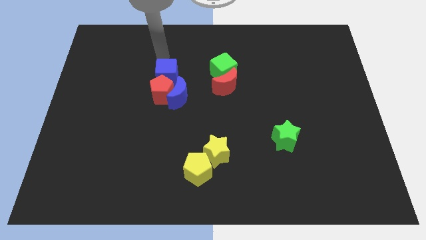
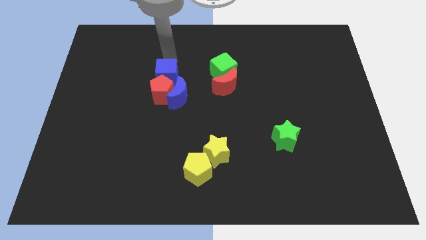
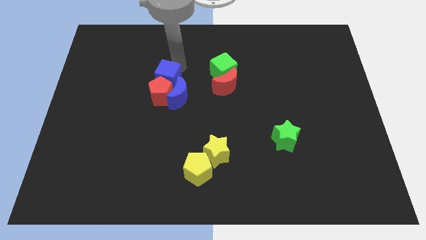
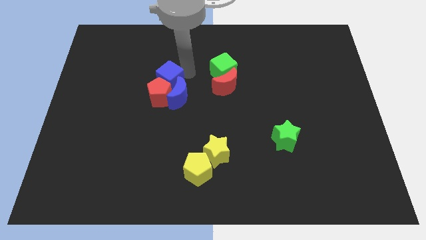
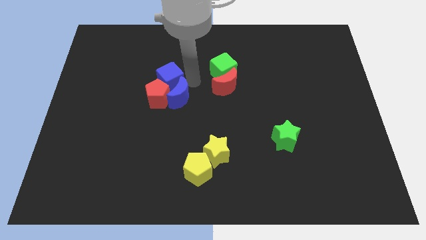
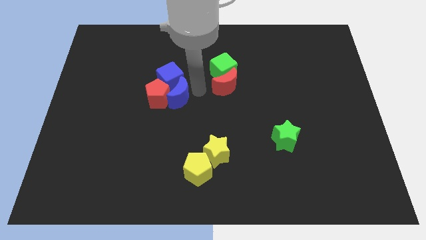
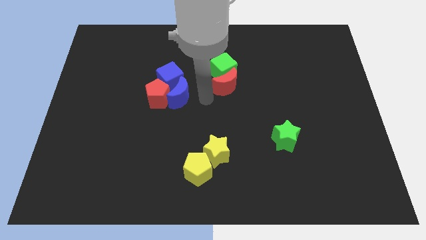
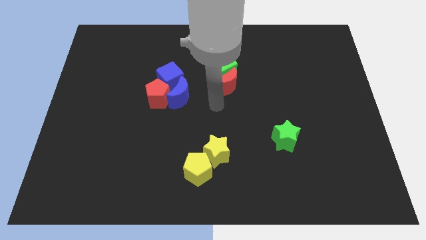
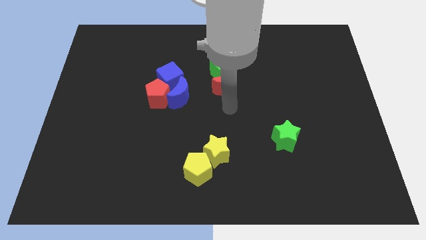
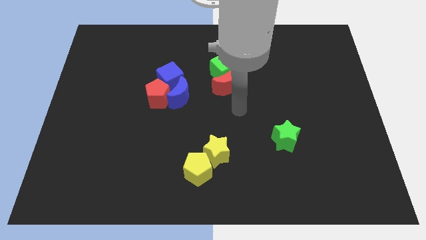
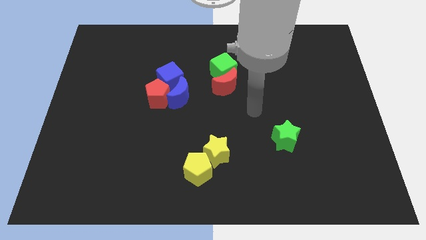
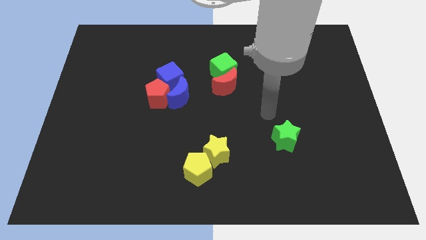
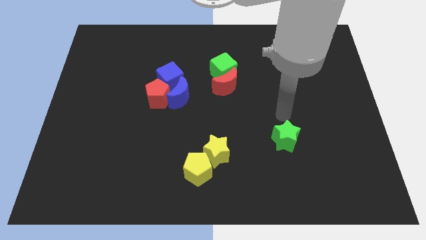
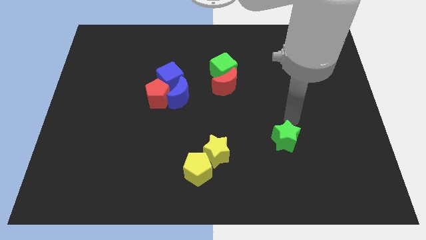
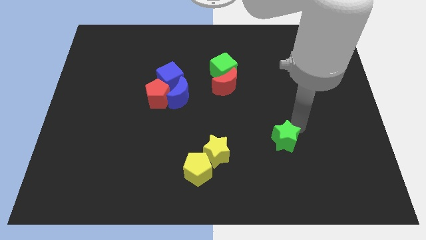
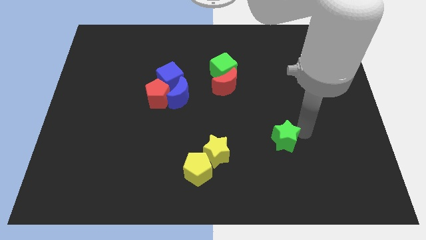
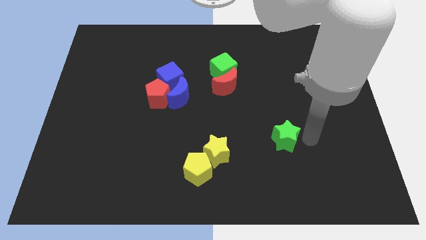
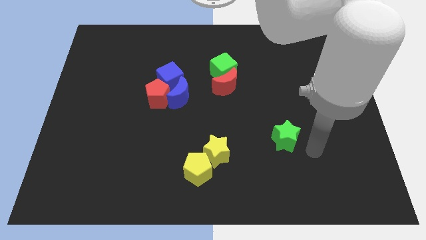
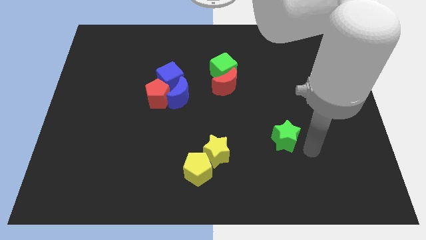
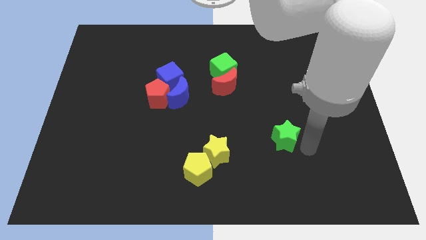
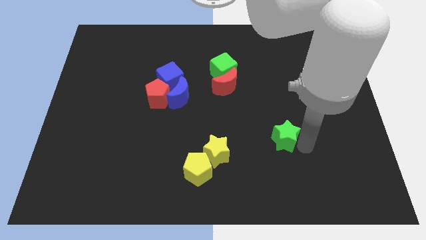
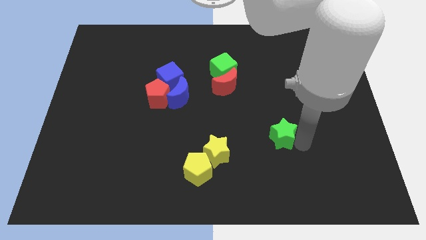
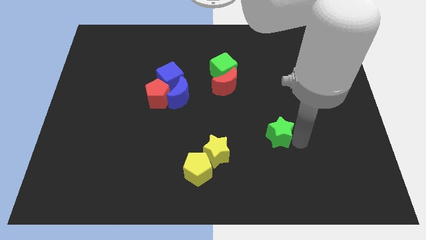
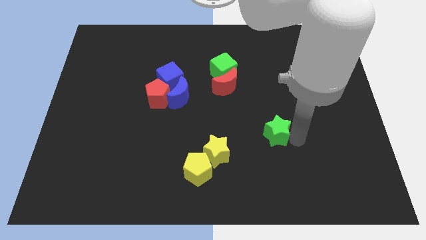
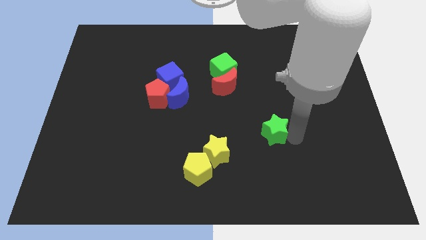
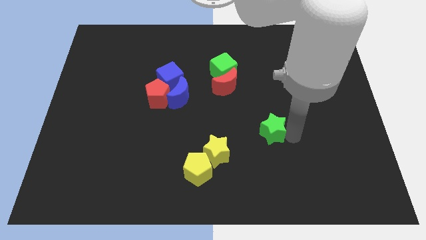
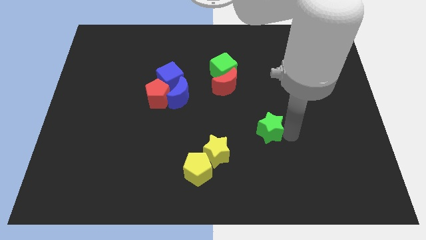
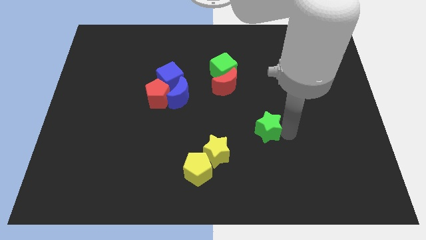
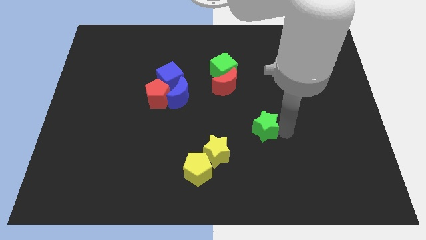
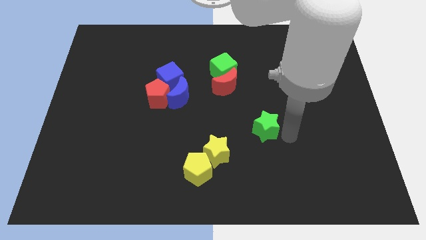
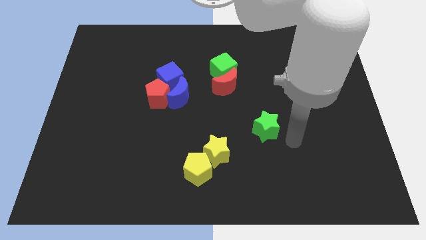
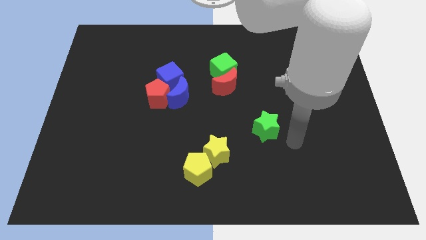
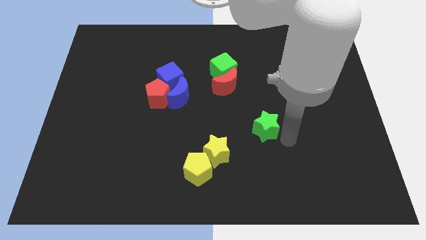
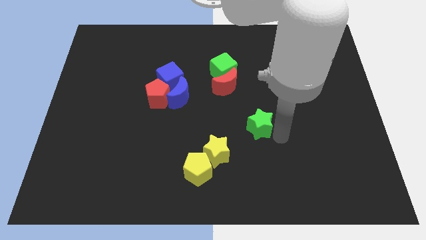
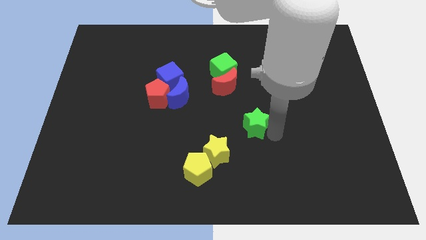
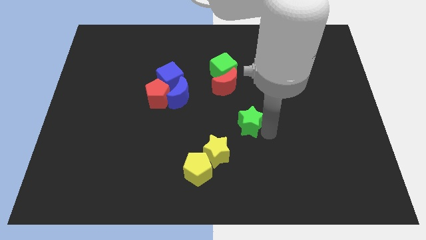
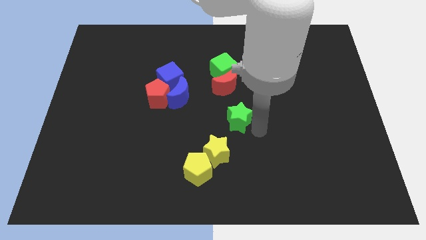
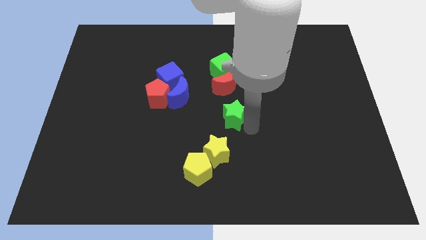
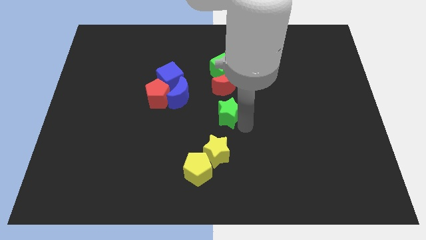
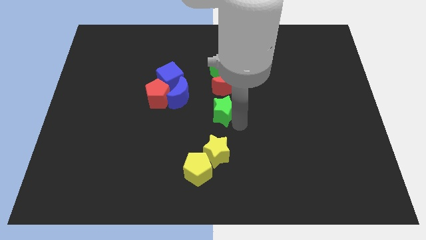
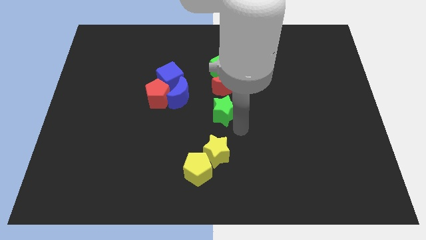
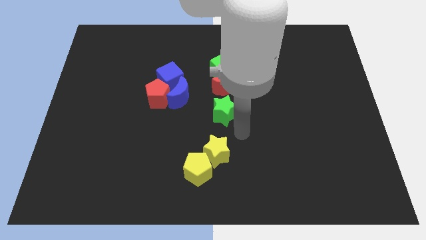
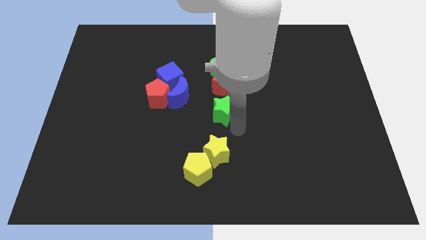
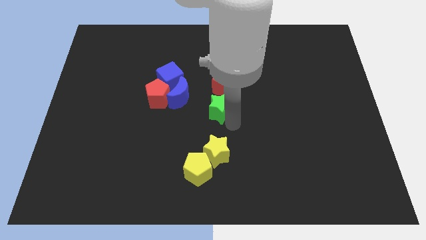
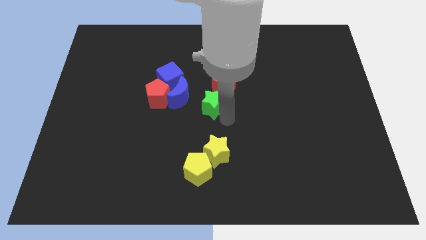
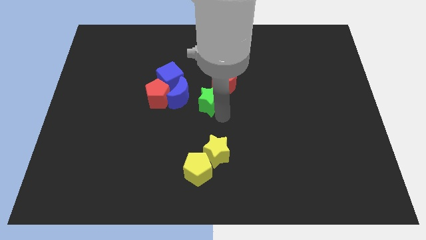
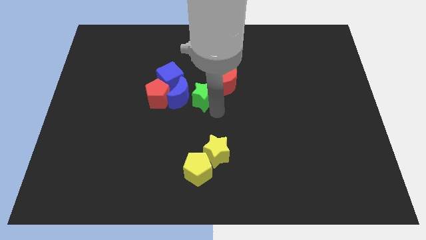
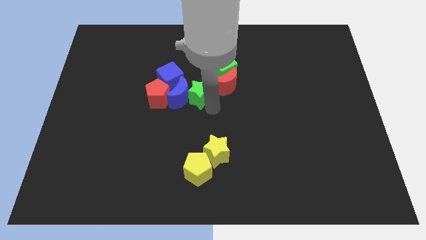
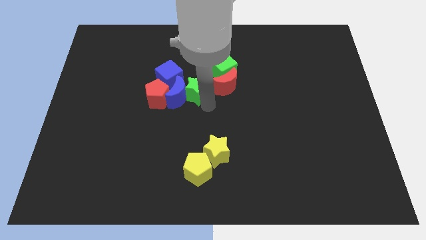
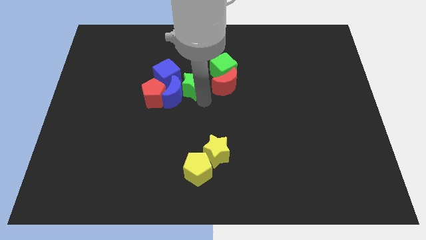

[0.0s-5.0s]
put the green star to the top right of the red pentagon

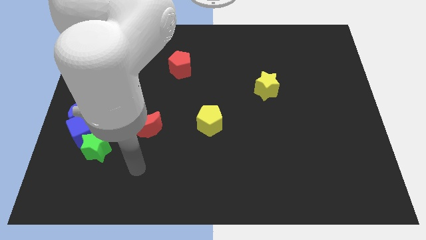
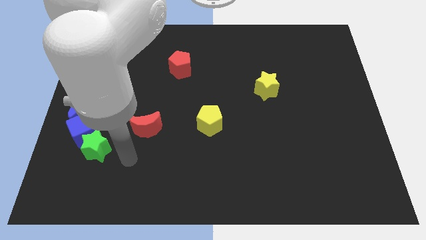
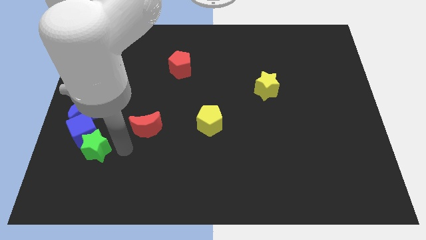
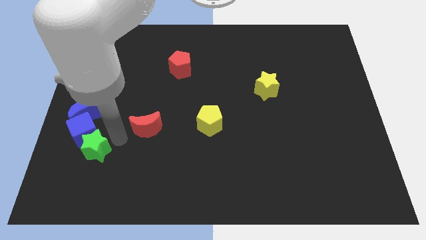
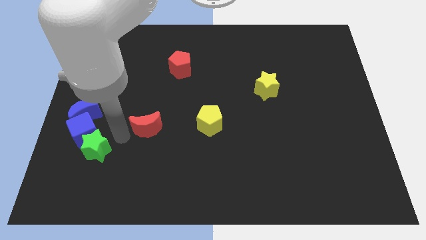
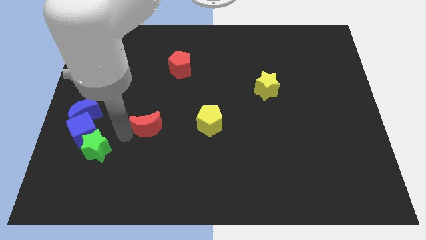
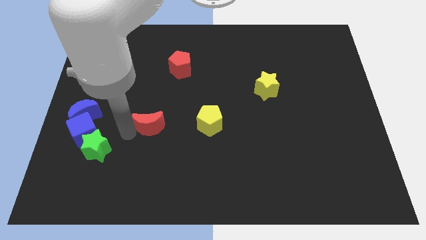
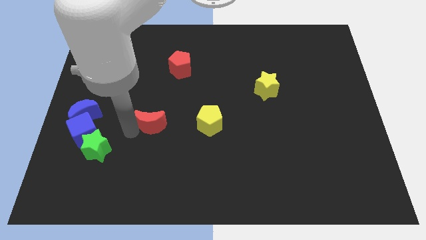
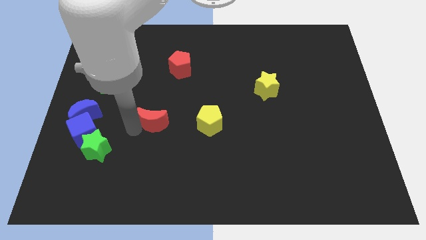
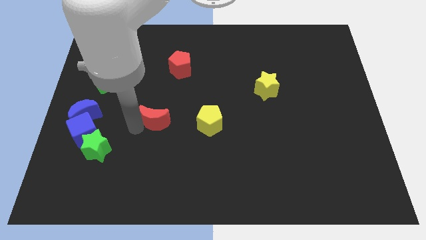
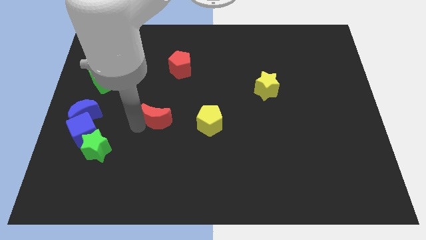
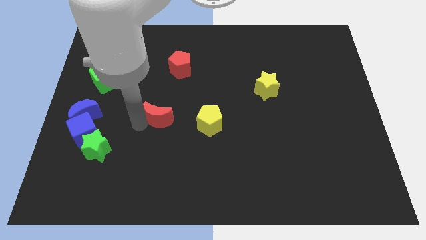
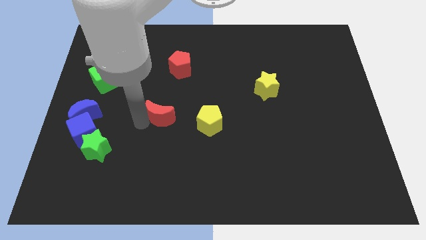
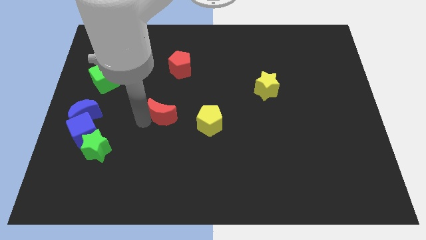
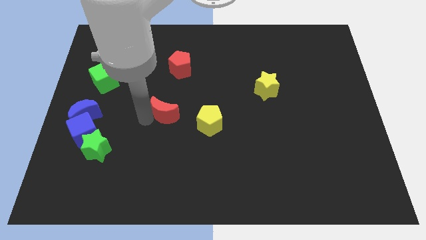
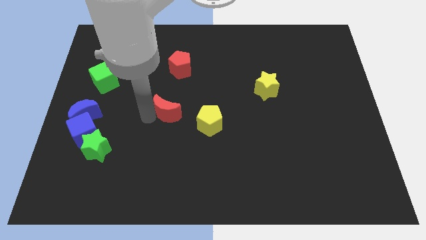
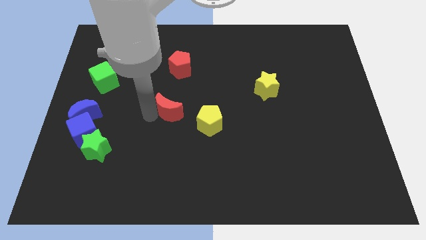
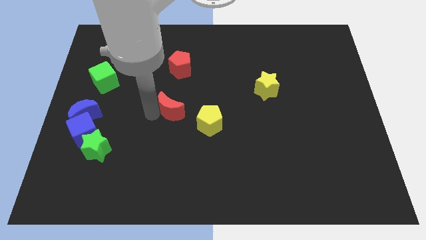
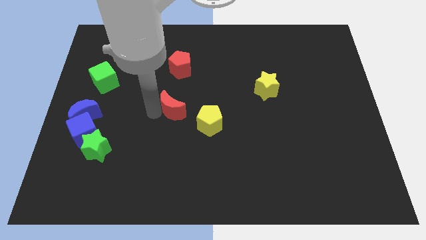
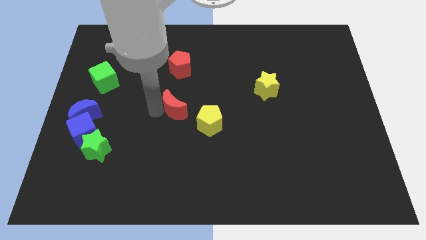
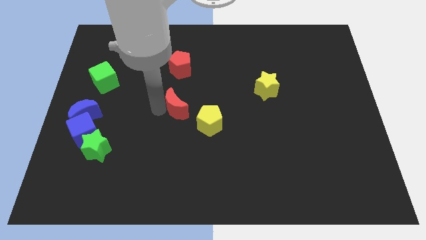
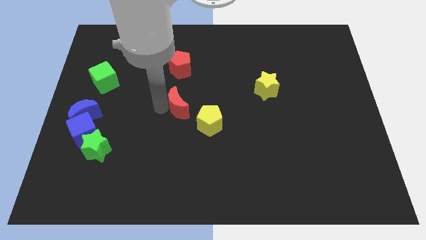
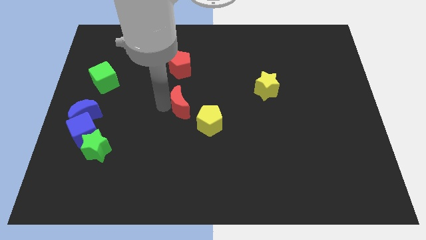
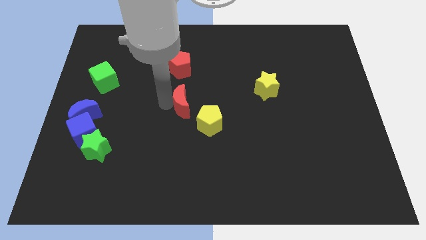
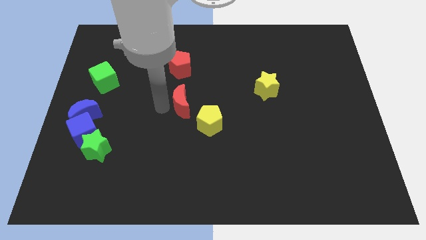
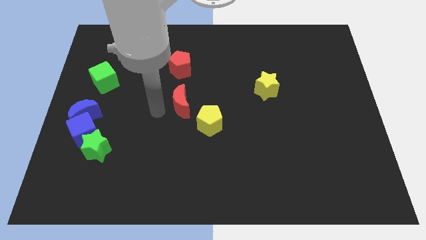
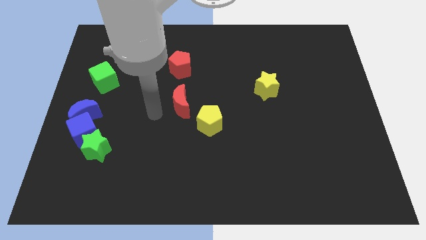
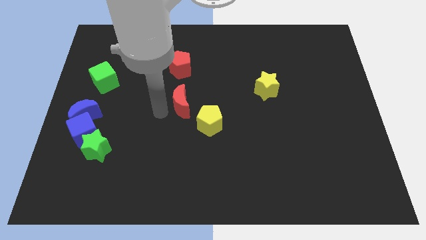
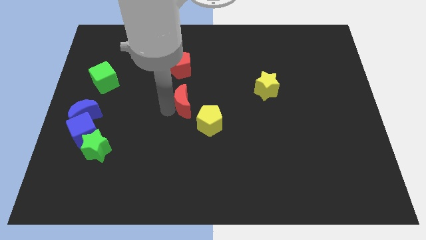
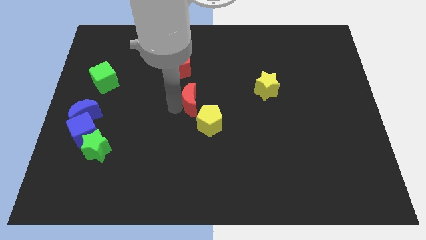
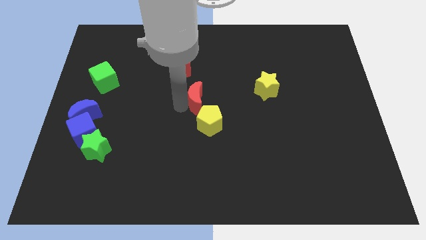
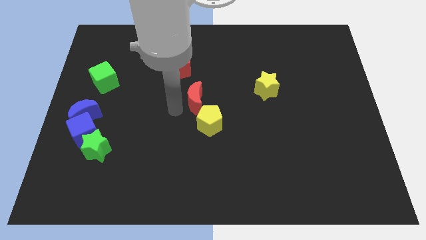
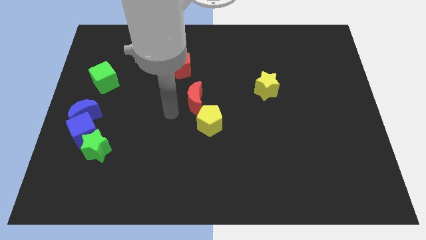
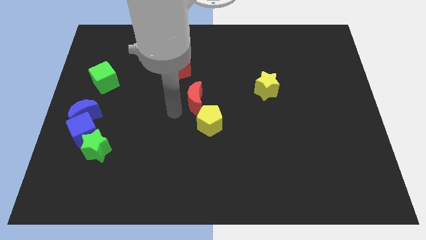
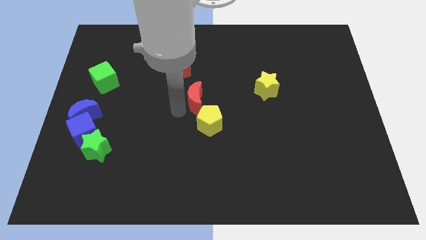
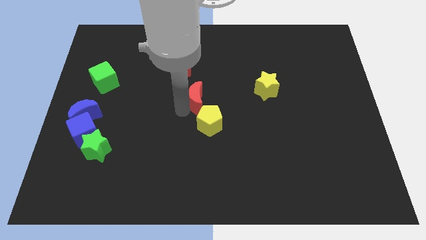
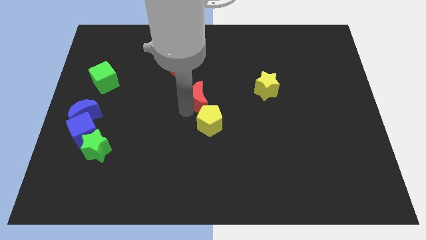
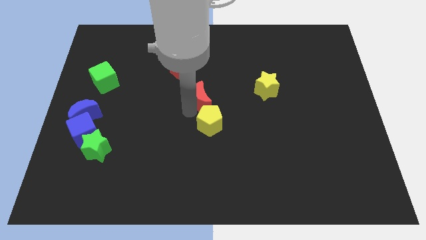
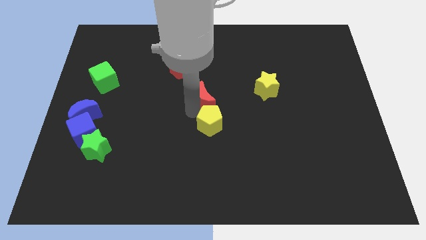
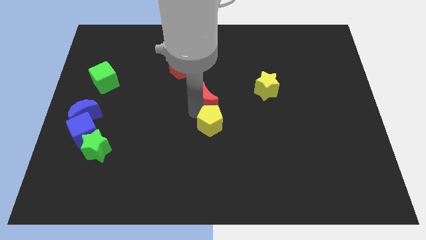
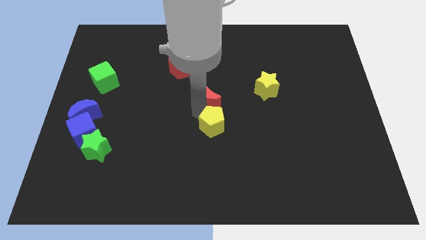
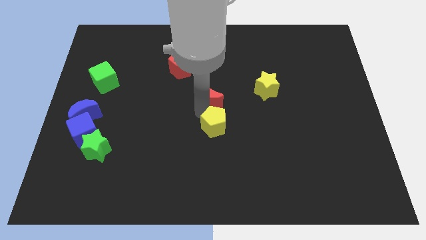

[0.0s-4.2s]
slide the red moon left of the yellow star
